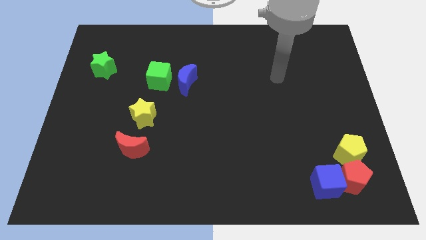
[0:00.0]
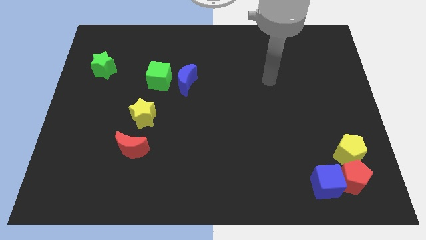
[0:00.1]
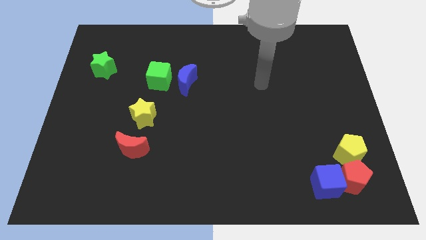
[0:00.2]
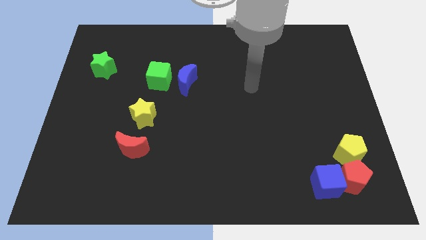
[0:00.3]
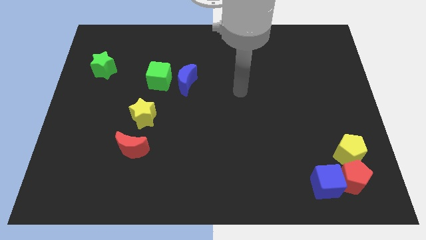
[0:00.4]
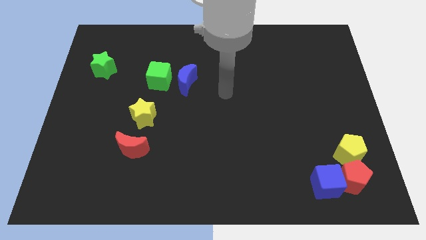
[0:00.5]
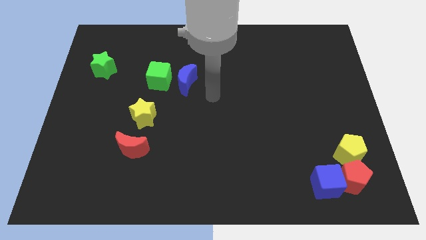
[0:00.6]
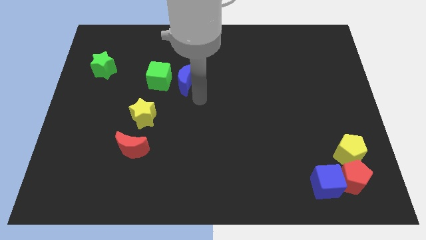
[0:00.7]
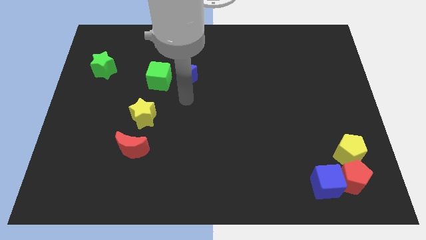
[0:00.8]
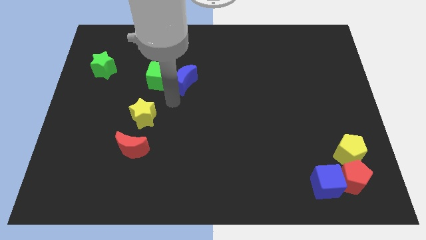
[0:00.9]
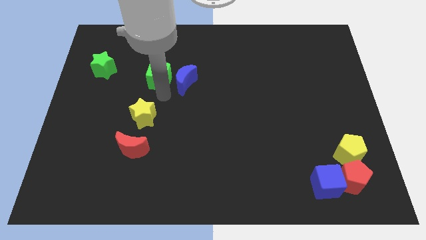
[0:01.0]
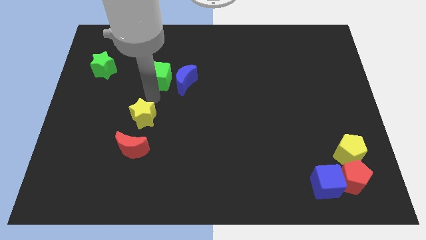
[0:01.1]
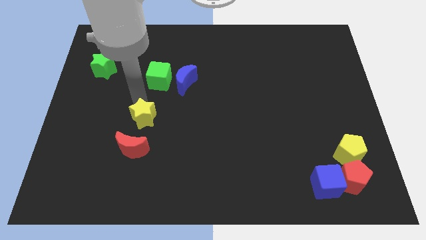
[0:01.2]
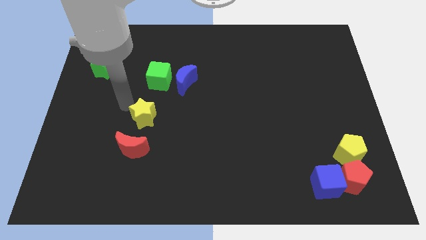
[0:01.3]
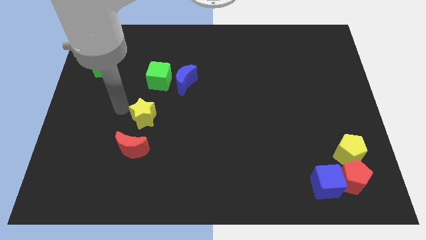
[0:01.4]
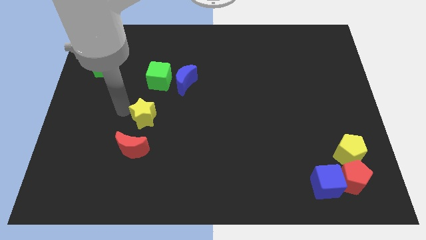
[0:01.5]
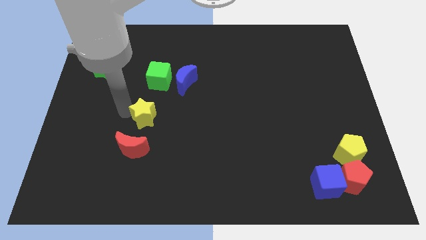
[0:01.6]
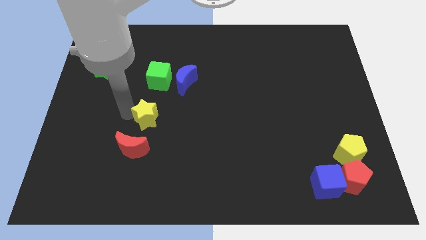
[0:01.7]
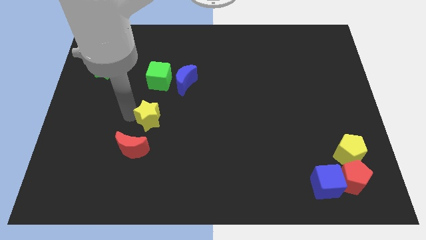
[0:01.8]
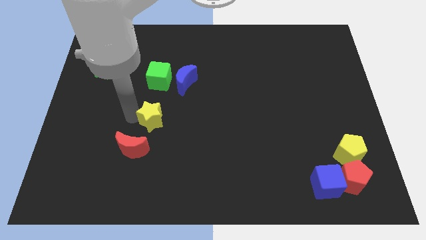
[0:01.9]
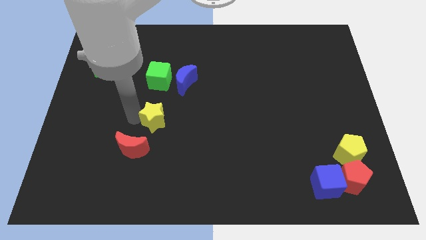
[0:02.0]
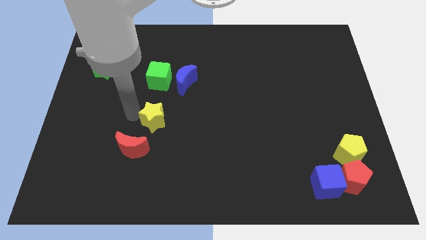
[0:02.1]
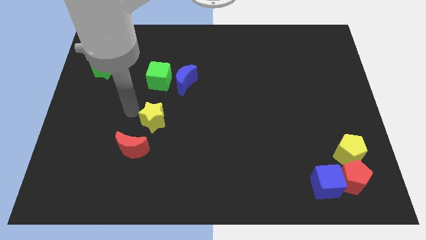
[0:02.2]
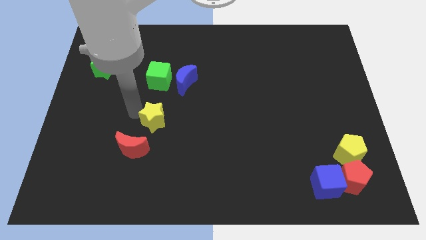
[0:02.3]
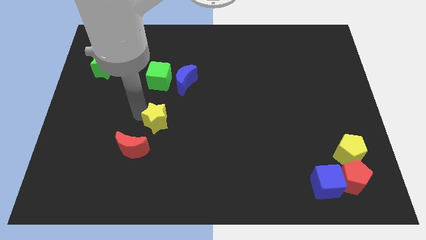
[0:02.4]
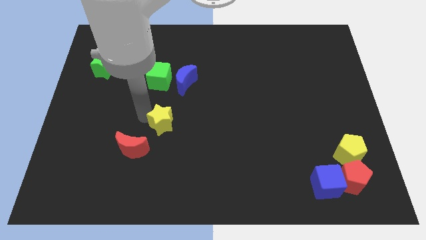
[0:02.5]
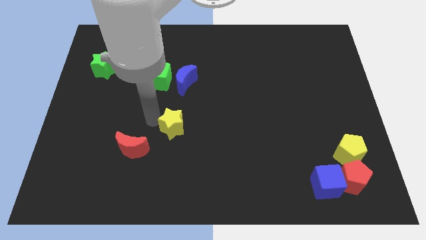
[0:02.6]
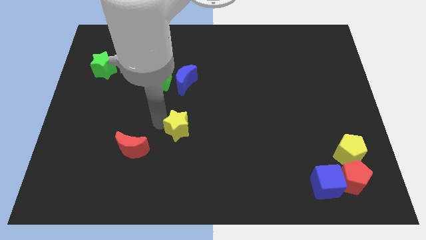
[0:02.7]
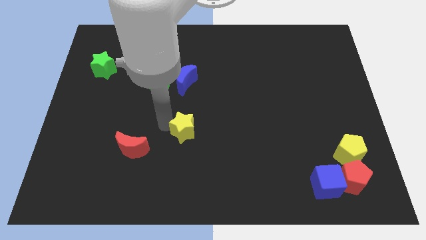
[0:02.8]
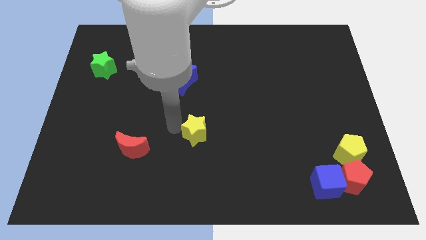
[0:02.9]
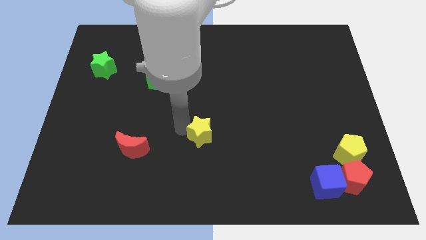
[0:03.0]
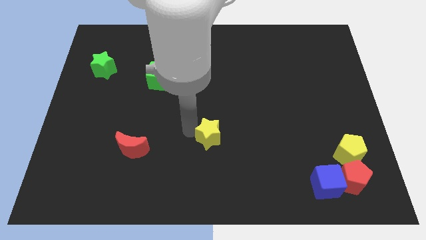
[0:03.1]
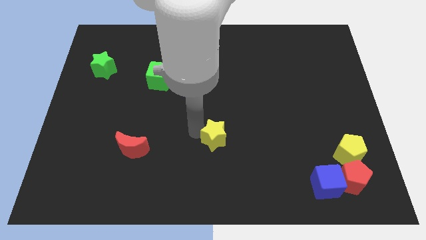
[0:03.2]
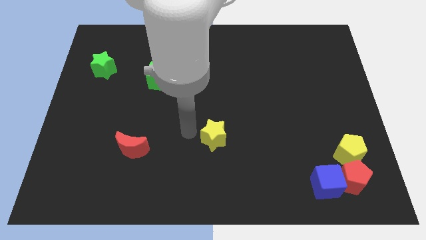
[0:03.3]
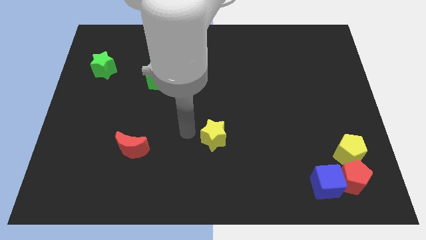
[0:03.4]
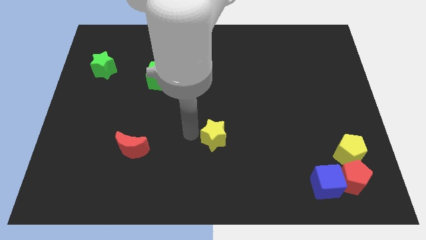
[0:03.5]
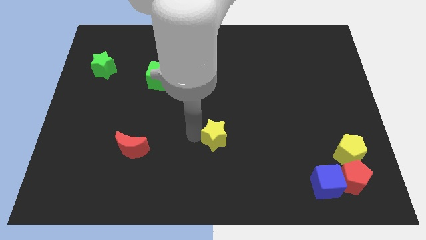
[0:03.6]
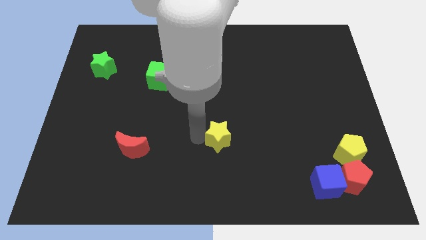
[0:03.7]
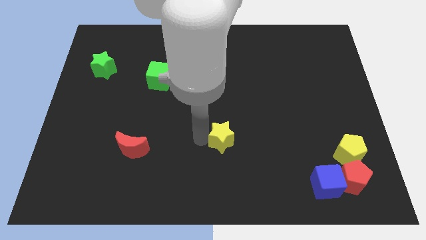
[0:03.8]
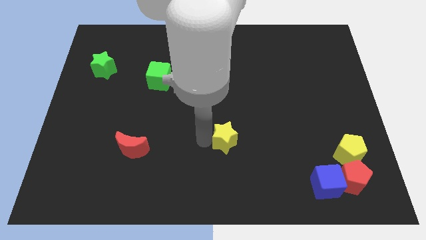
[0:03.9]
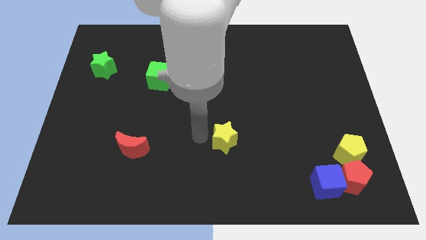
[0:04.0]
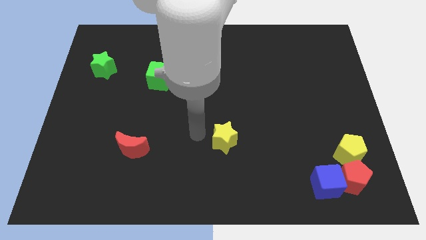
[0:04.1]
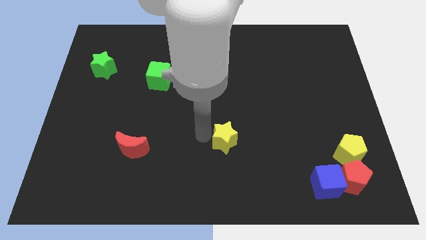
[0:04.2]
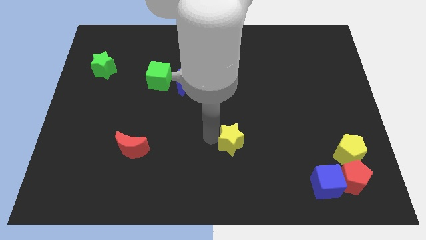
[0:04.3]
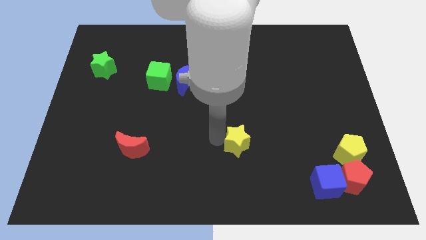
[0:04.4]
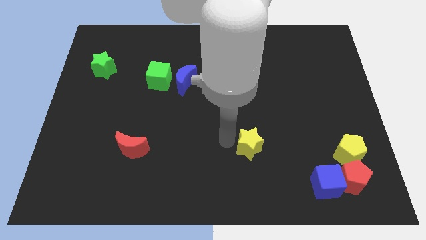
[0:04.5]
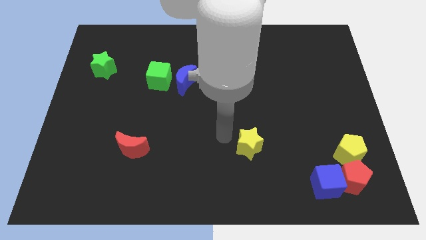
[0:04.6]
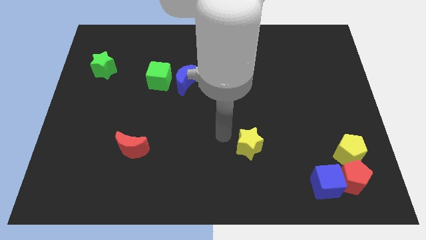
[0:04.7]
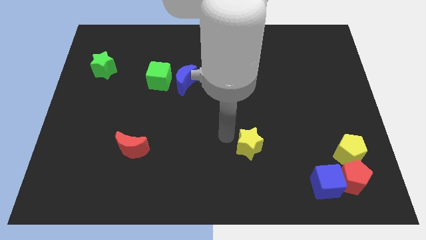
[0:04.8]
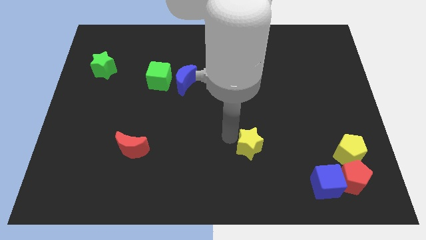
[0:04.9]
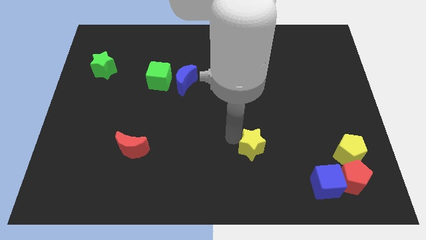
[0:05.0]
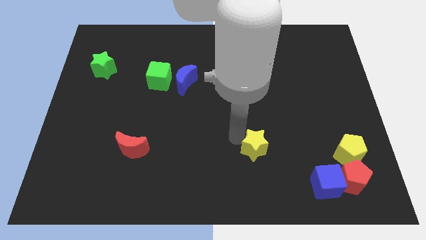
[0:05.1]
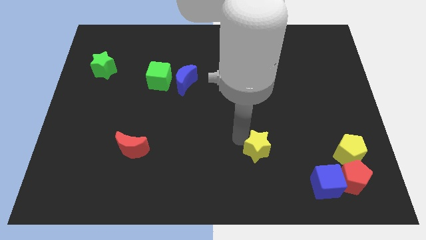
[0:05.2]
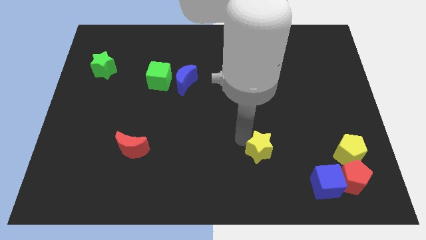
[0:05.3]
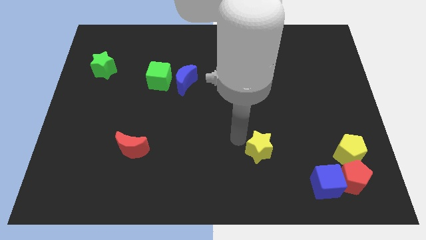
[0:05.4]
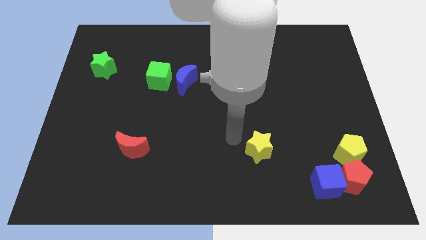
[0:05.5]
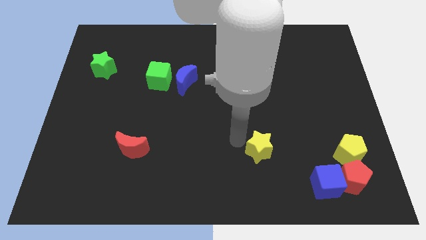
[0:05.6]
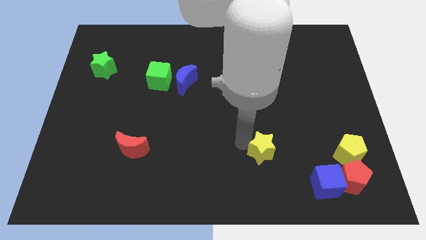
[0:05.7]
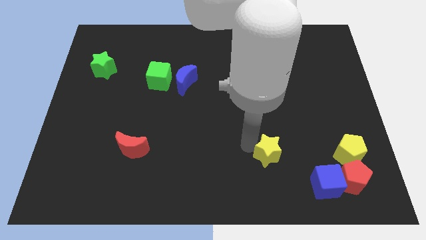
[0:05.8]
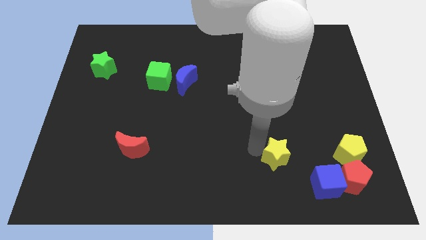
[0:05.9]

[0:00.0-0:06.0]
slide the yellow star diagonally up and to the left of the blue cube

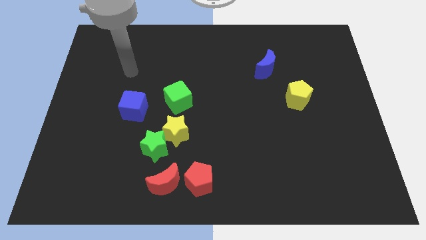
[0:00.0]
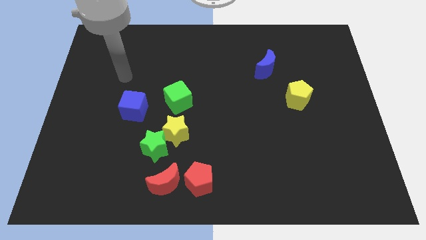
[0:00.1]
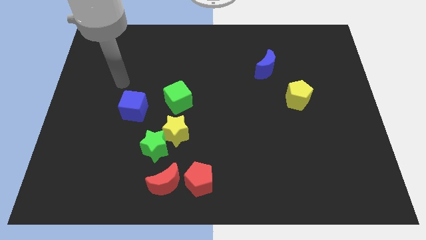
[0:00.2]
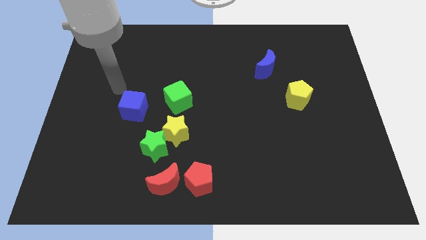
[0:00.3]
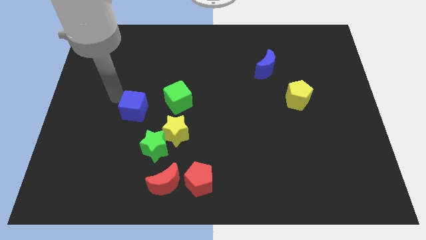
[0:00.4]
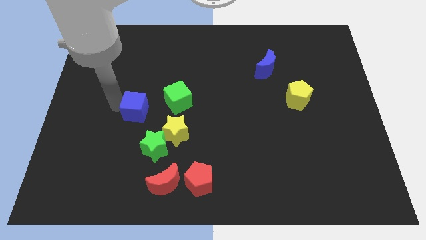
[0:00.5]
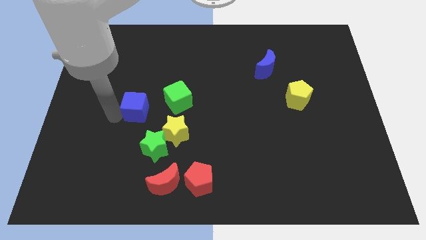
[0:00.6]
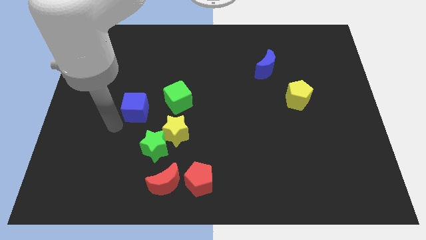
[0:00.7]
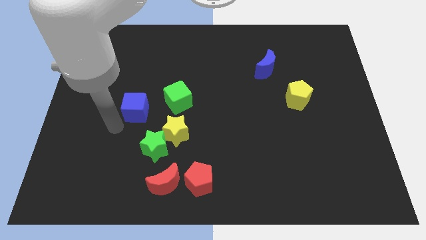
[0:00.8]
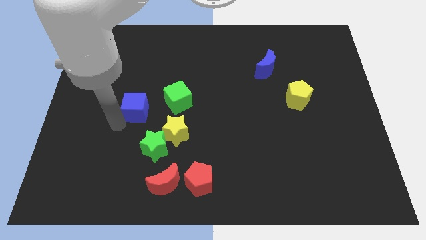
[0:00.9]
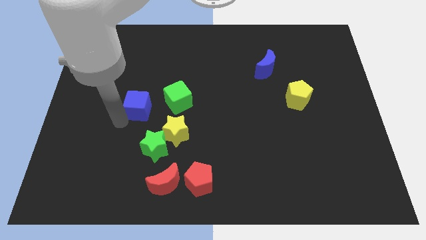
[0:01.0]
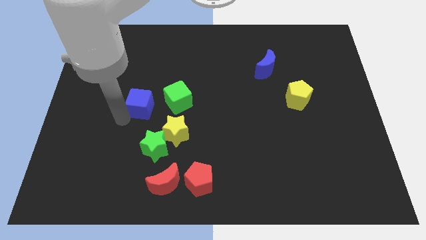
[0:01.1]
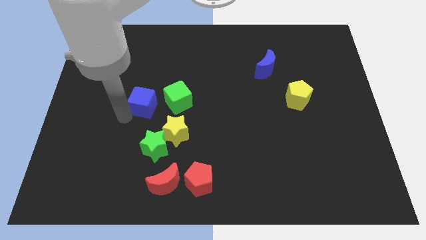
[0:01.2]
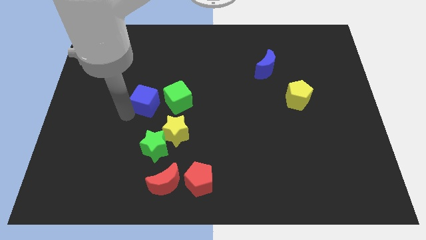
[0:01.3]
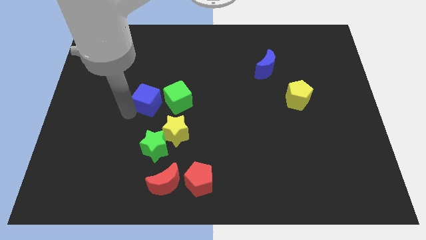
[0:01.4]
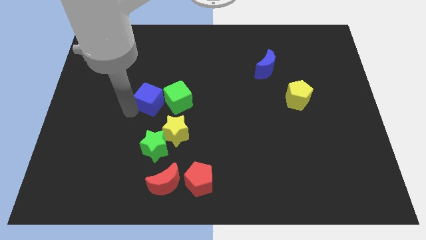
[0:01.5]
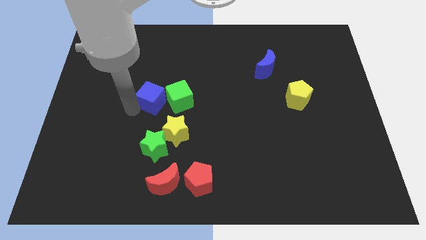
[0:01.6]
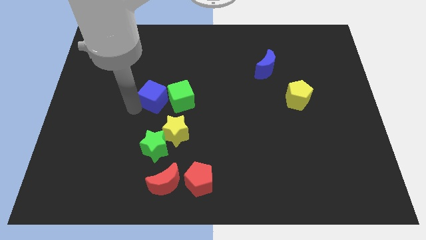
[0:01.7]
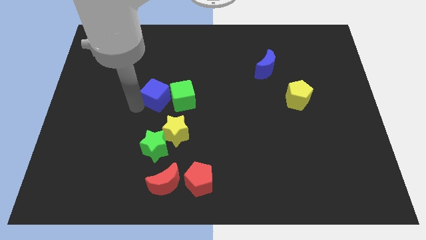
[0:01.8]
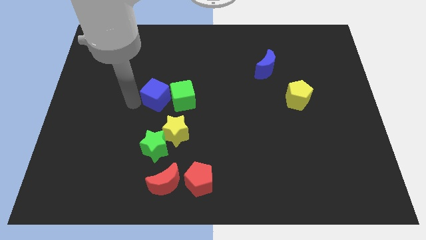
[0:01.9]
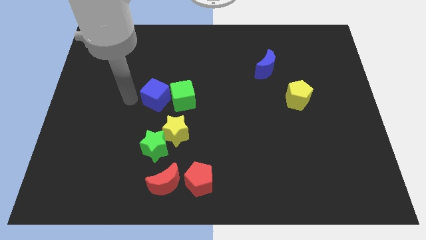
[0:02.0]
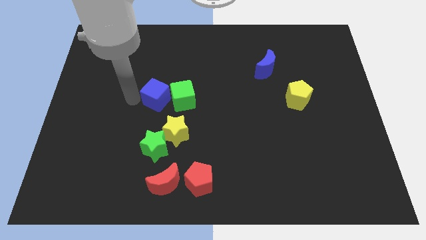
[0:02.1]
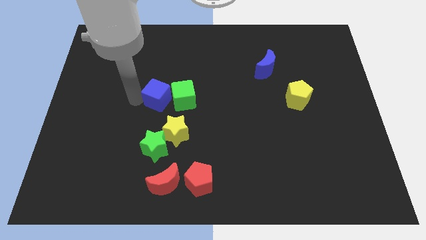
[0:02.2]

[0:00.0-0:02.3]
put the blue cube above the yellow star
